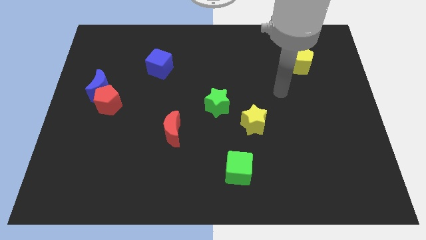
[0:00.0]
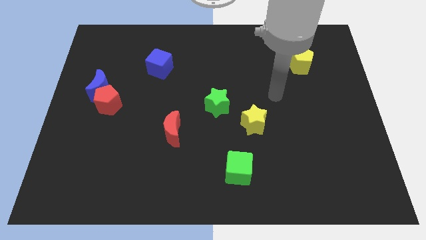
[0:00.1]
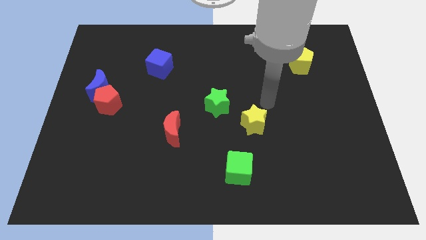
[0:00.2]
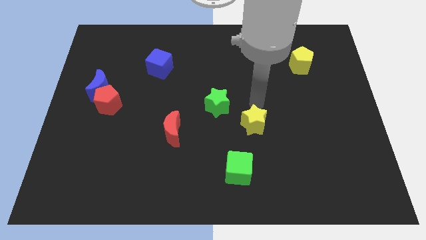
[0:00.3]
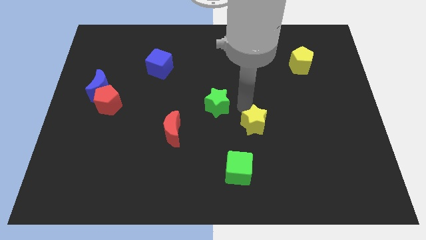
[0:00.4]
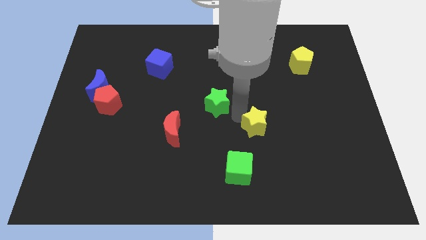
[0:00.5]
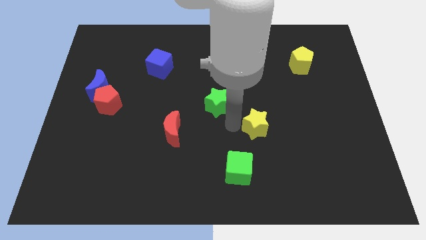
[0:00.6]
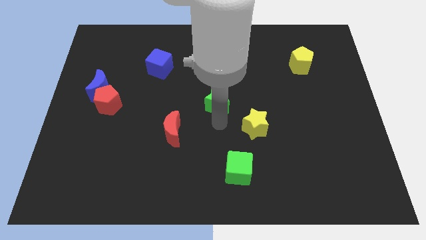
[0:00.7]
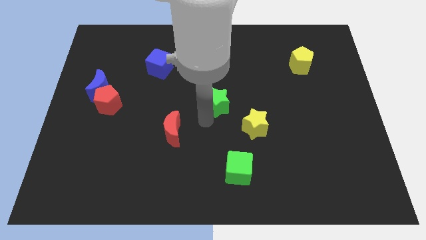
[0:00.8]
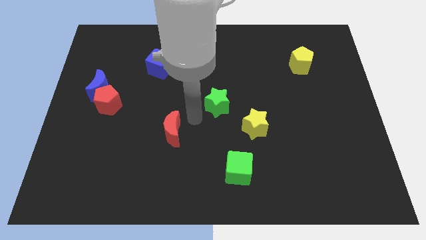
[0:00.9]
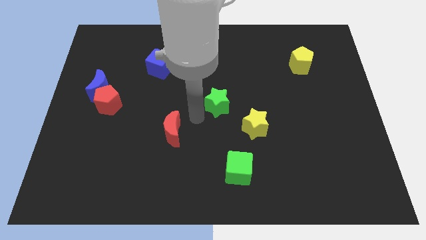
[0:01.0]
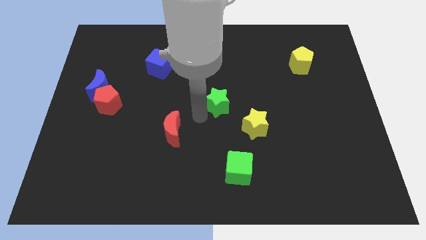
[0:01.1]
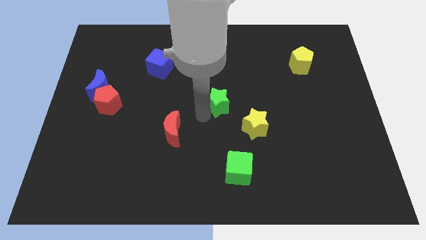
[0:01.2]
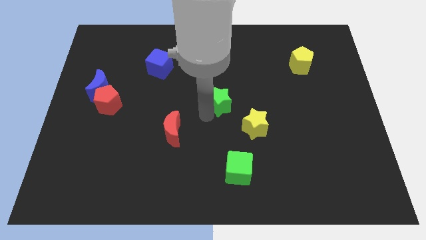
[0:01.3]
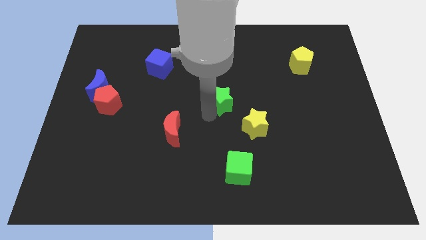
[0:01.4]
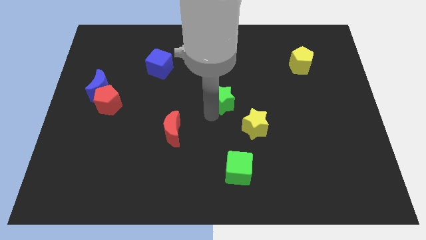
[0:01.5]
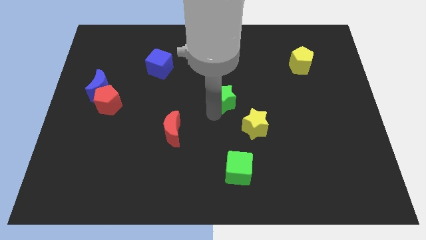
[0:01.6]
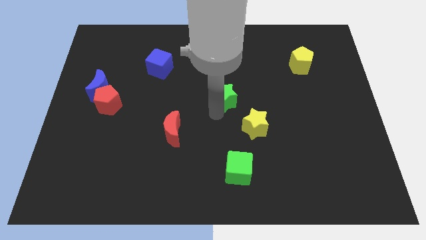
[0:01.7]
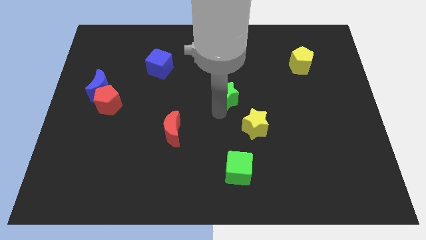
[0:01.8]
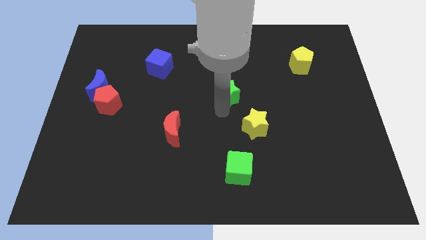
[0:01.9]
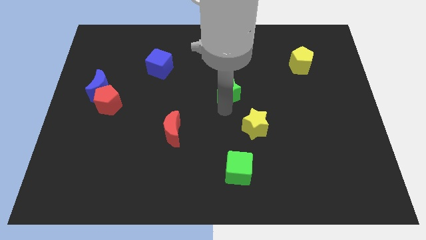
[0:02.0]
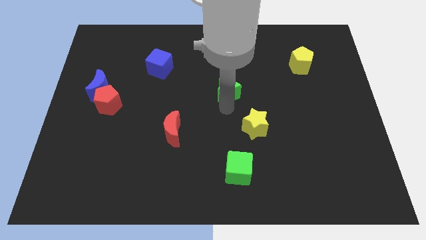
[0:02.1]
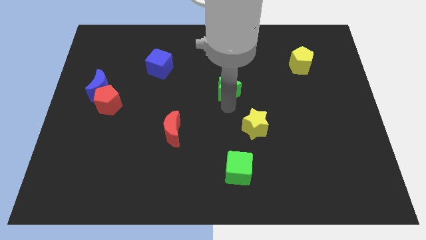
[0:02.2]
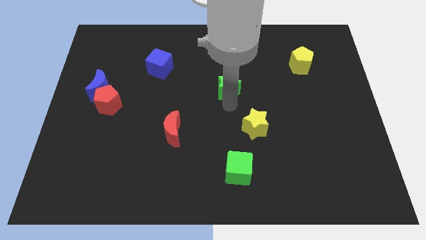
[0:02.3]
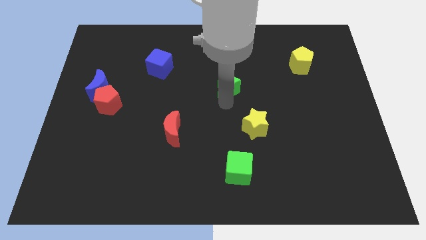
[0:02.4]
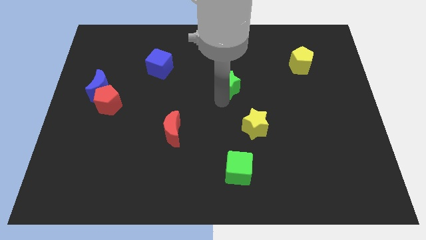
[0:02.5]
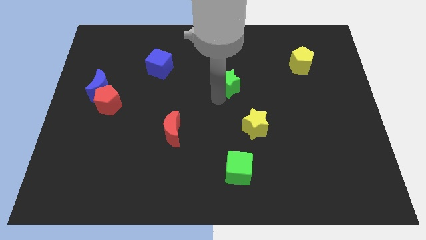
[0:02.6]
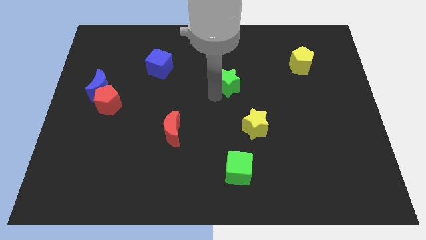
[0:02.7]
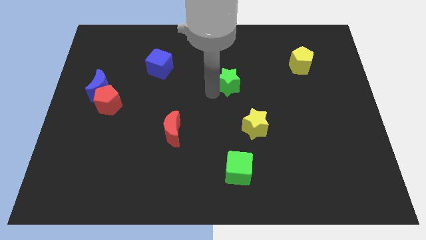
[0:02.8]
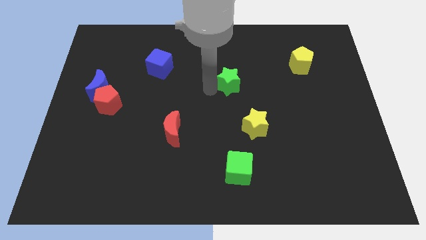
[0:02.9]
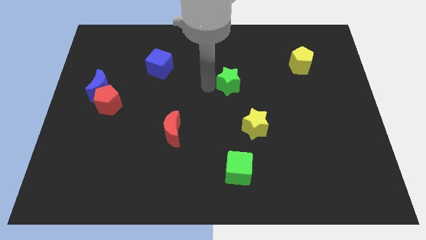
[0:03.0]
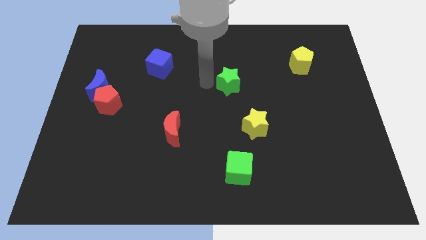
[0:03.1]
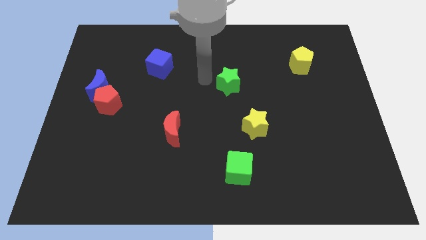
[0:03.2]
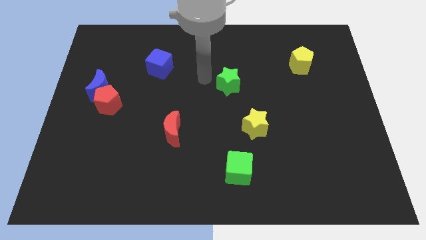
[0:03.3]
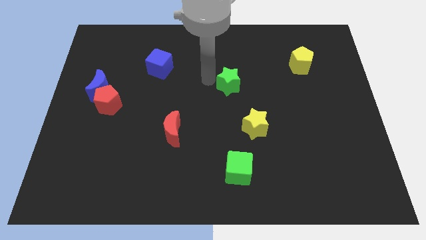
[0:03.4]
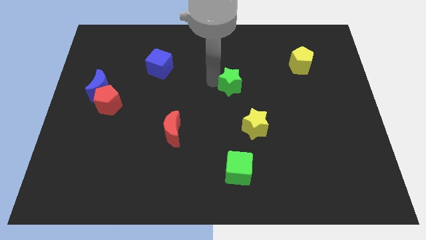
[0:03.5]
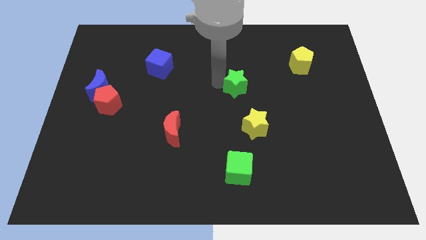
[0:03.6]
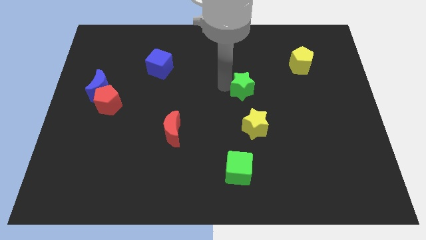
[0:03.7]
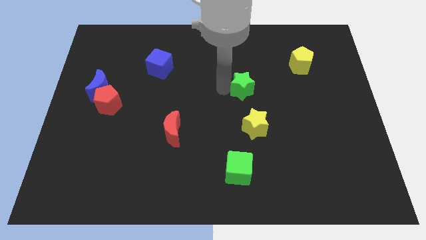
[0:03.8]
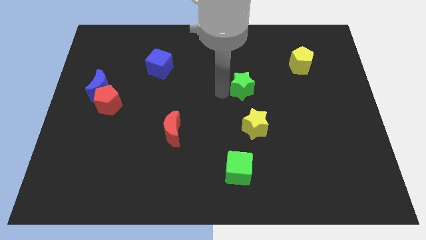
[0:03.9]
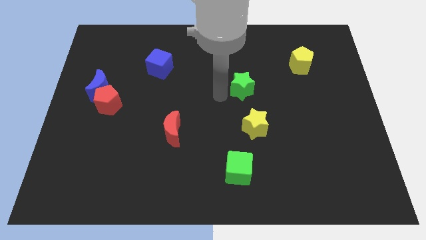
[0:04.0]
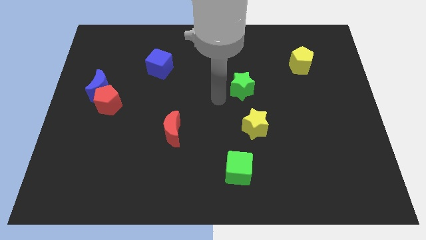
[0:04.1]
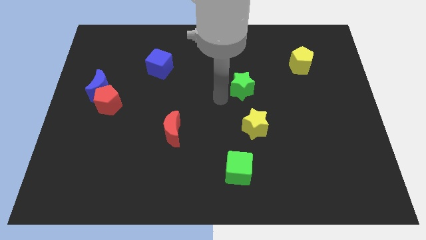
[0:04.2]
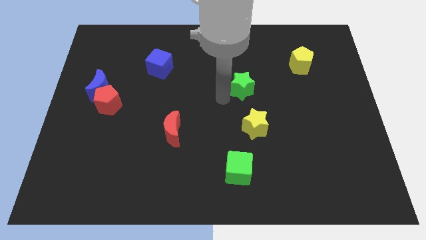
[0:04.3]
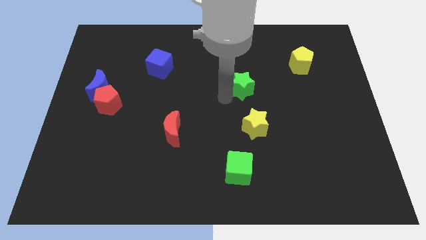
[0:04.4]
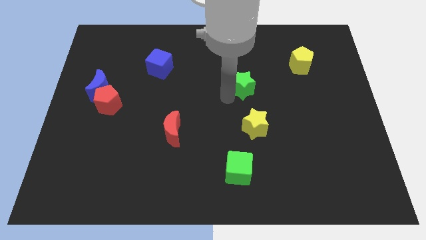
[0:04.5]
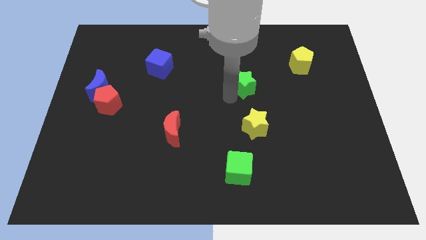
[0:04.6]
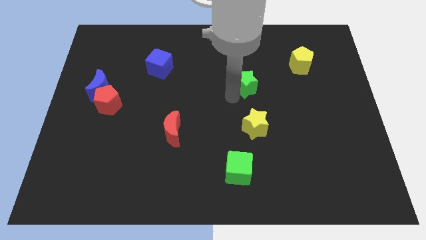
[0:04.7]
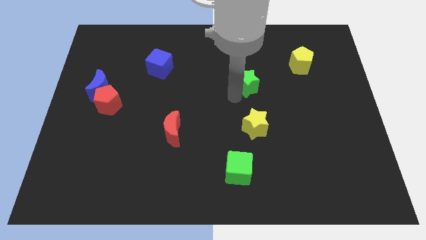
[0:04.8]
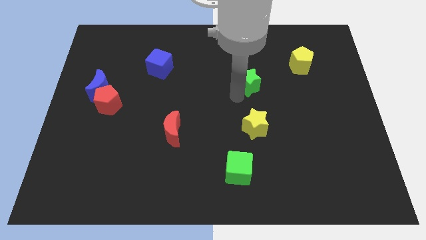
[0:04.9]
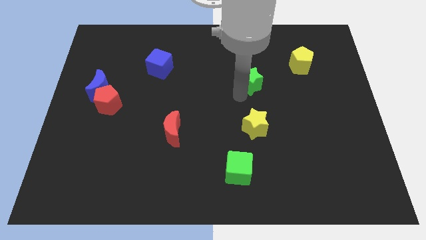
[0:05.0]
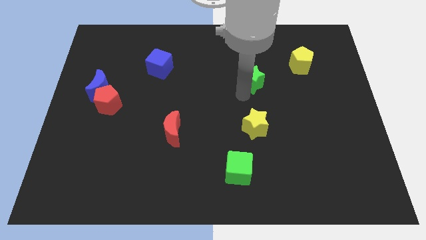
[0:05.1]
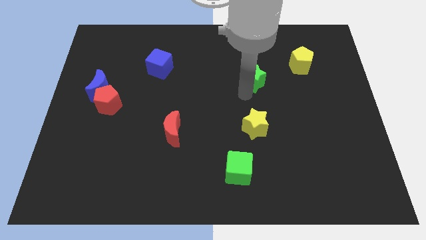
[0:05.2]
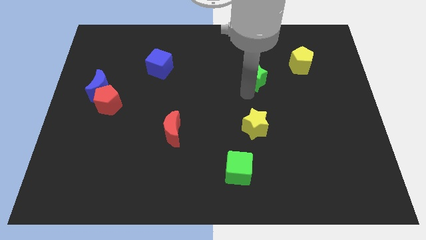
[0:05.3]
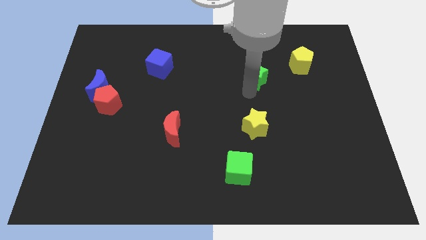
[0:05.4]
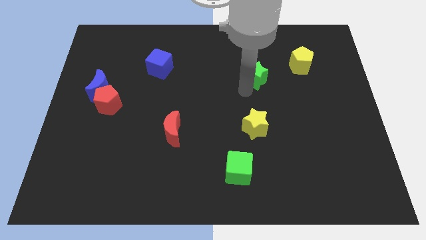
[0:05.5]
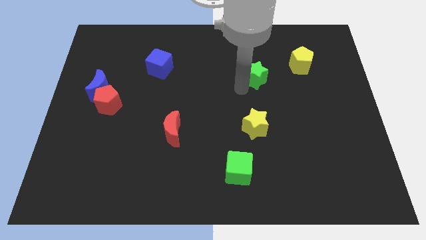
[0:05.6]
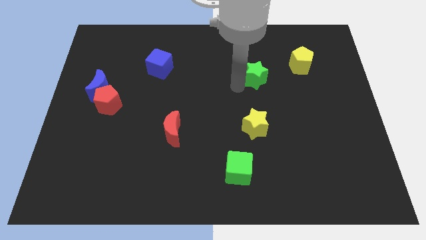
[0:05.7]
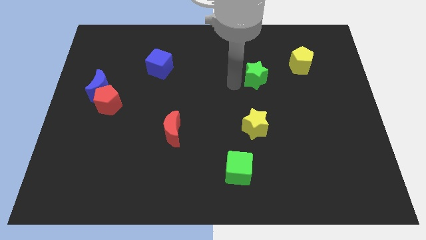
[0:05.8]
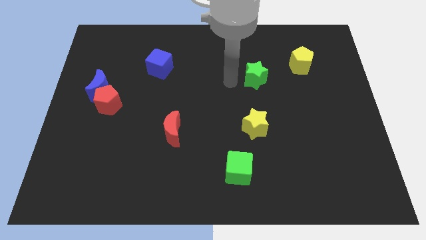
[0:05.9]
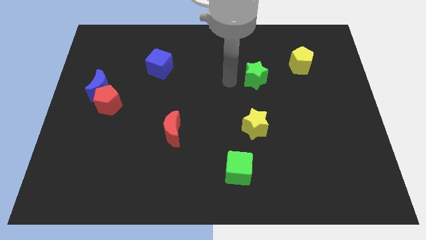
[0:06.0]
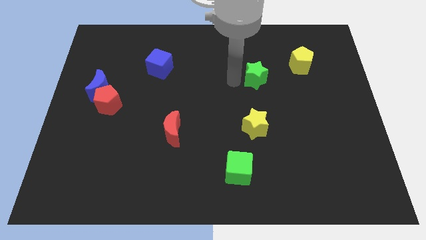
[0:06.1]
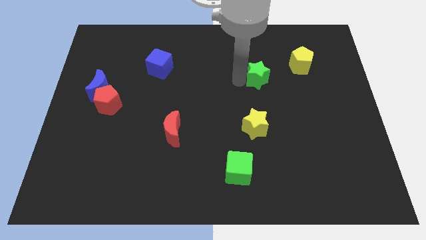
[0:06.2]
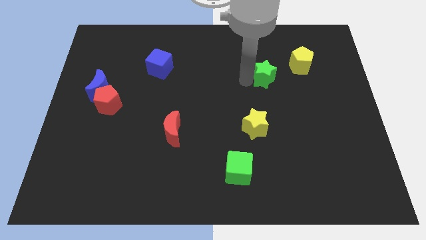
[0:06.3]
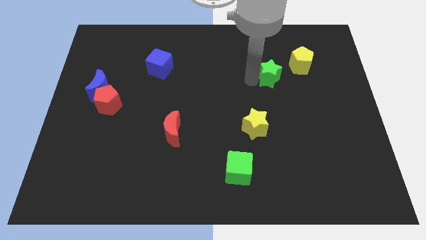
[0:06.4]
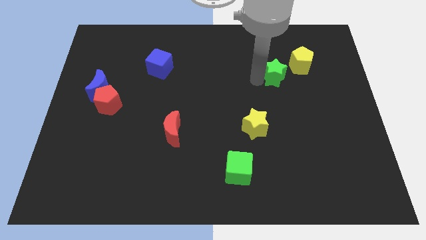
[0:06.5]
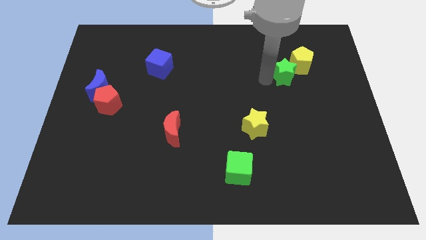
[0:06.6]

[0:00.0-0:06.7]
push the green star towards the yellow pentagon

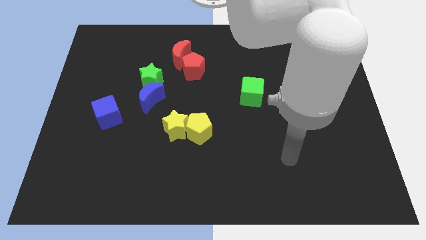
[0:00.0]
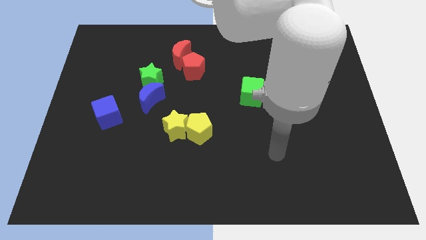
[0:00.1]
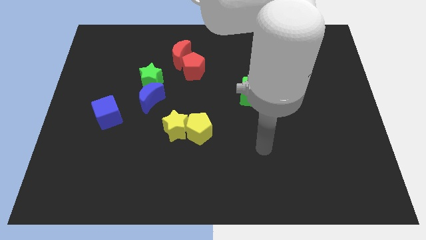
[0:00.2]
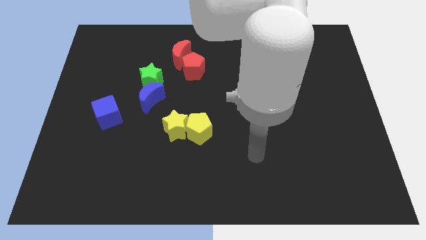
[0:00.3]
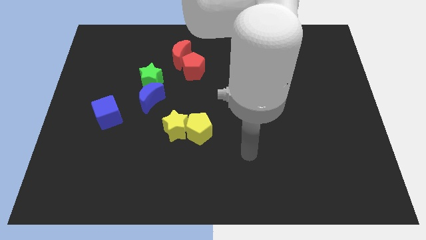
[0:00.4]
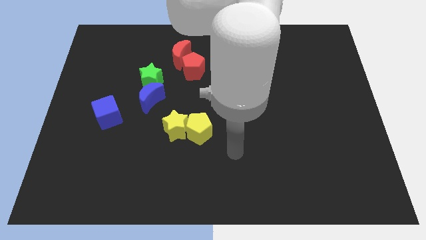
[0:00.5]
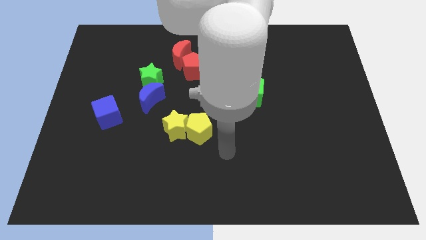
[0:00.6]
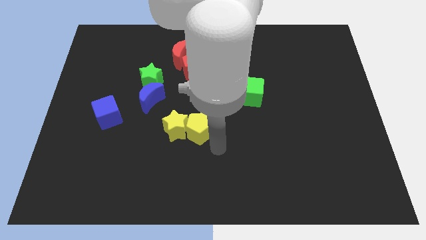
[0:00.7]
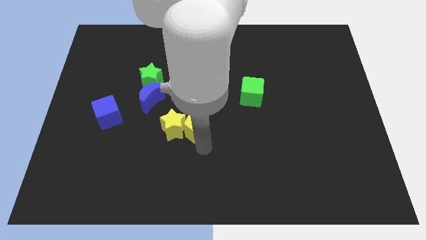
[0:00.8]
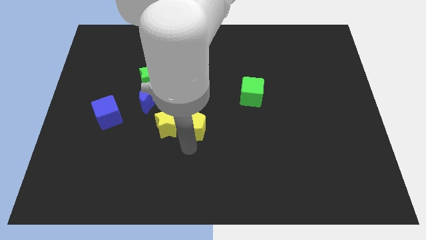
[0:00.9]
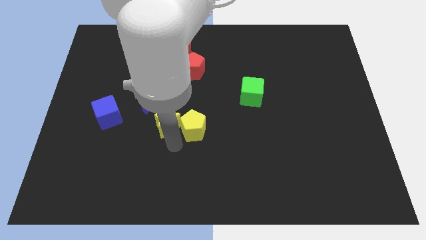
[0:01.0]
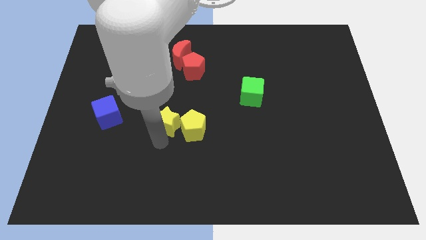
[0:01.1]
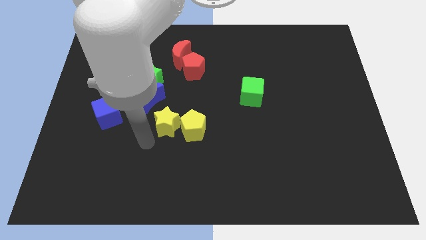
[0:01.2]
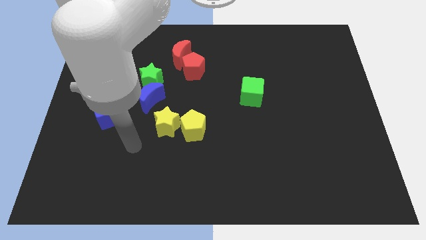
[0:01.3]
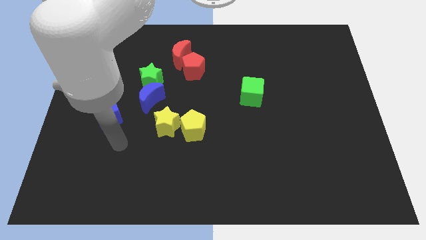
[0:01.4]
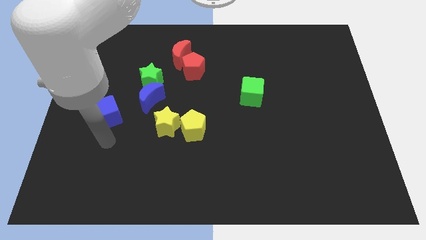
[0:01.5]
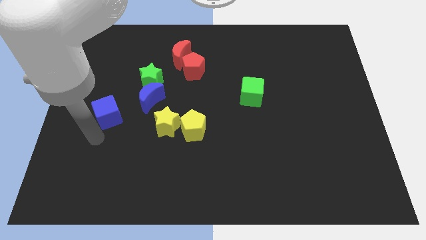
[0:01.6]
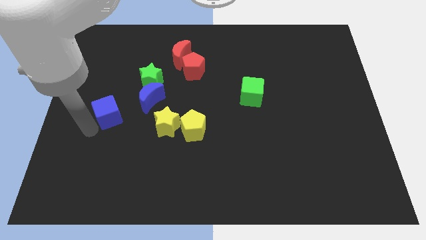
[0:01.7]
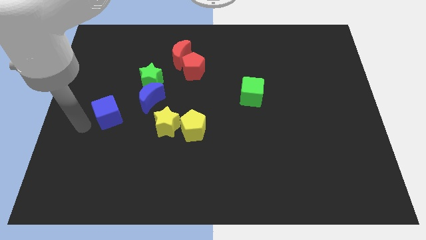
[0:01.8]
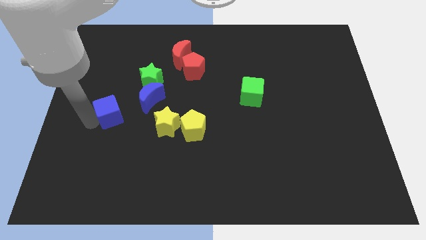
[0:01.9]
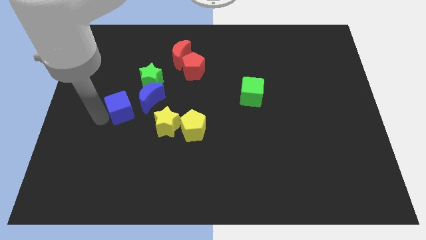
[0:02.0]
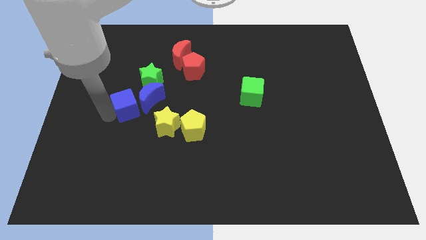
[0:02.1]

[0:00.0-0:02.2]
move the blue cube close to the blue moon
